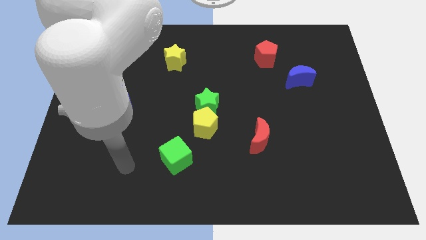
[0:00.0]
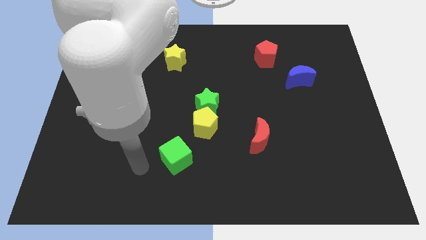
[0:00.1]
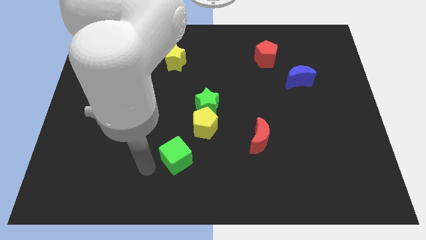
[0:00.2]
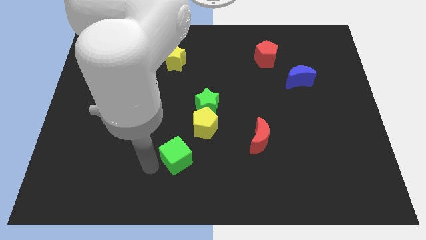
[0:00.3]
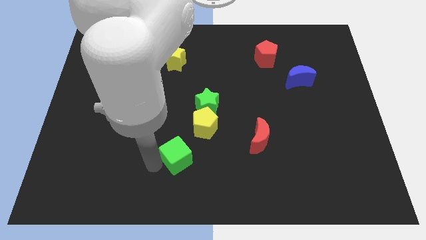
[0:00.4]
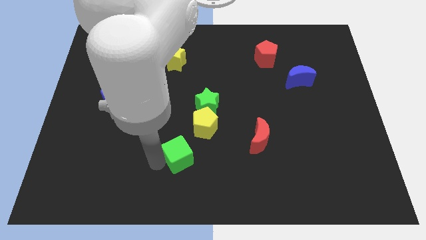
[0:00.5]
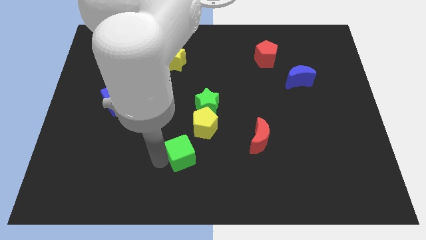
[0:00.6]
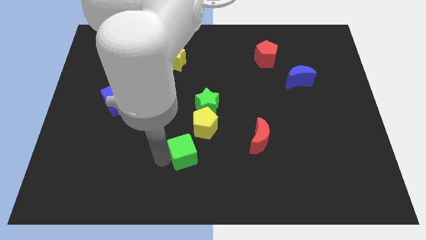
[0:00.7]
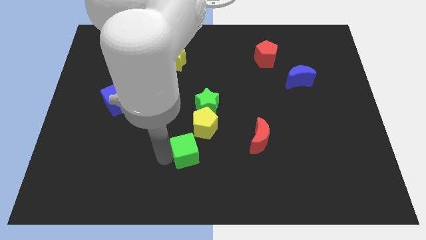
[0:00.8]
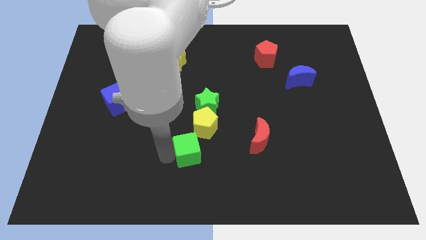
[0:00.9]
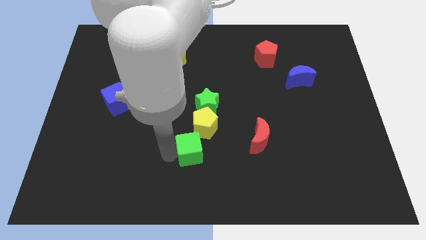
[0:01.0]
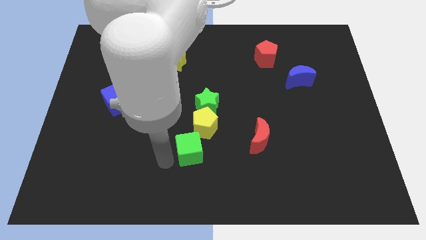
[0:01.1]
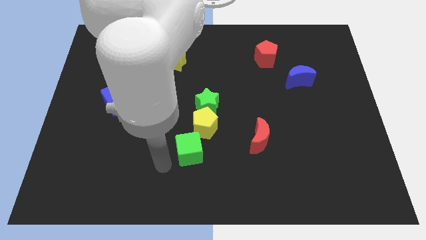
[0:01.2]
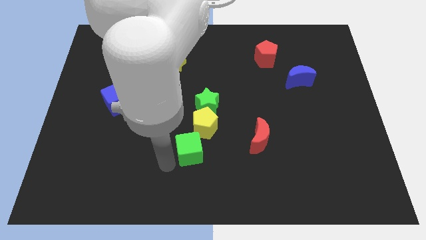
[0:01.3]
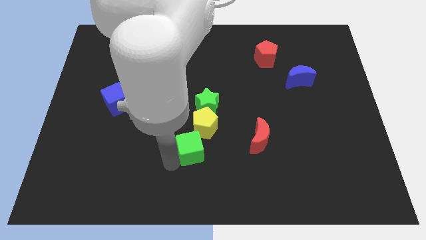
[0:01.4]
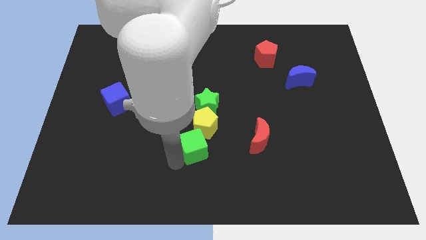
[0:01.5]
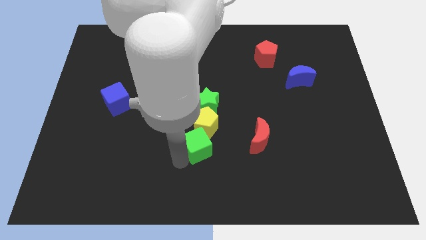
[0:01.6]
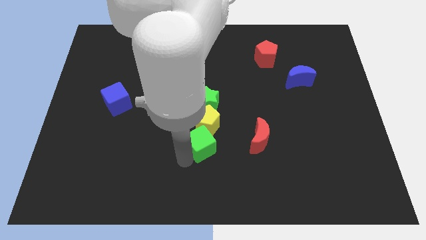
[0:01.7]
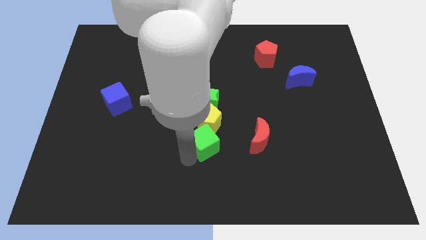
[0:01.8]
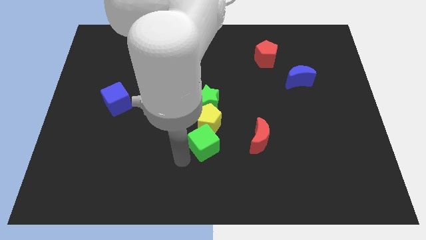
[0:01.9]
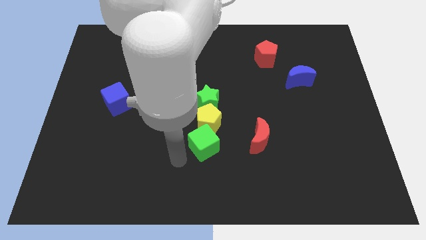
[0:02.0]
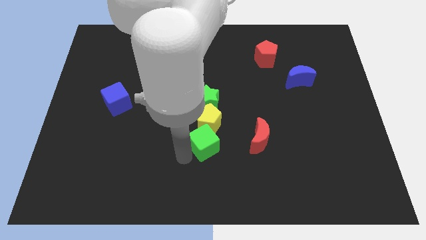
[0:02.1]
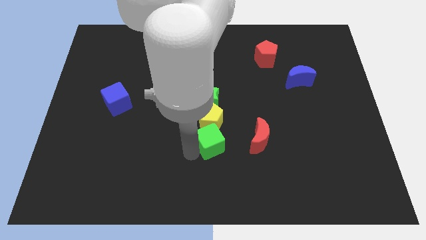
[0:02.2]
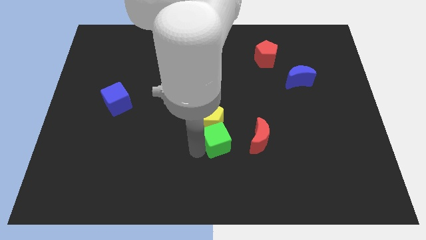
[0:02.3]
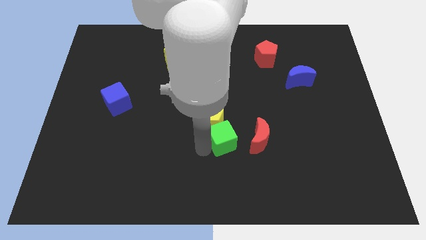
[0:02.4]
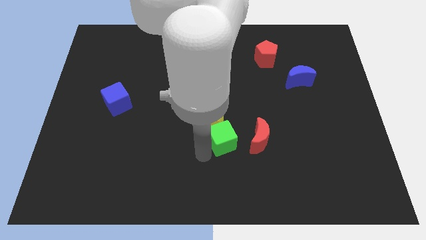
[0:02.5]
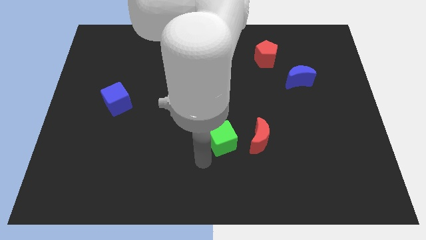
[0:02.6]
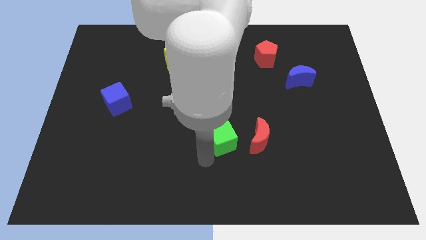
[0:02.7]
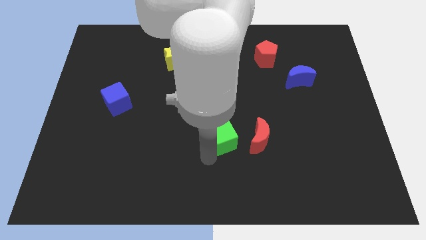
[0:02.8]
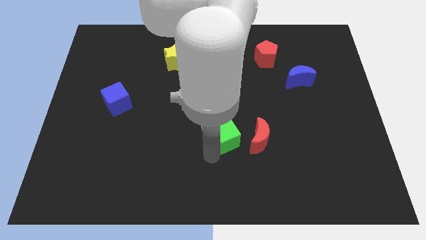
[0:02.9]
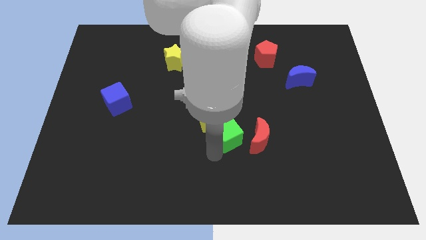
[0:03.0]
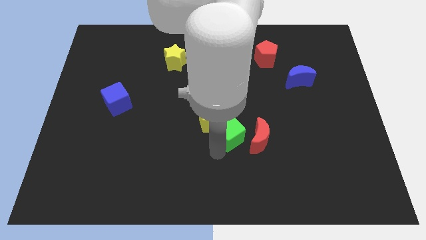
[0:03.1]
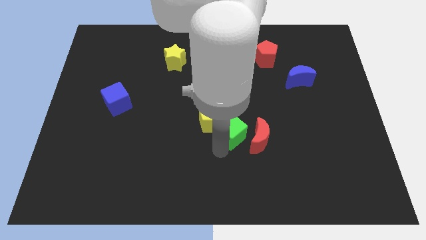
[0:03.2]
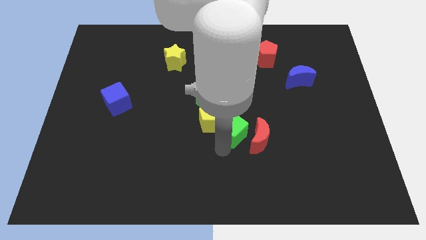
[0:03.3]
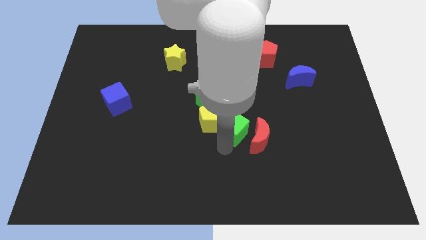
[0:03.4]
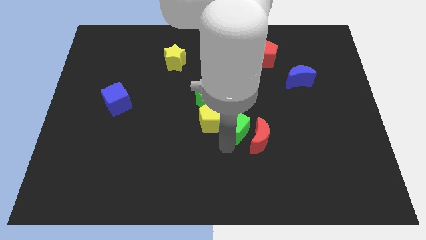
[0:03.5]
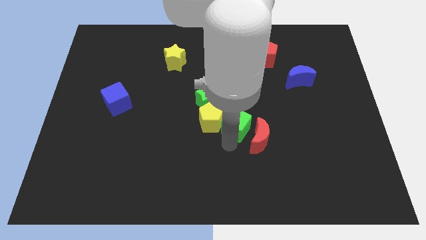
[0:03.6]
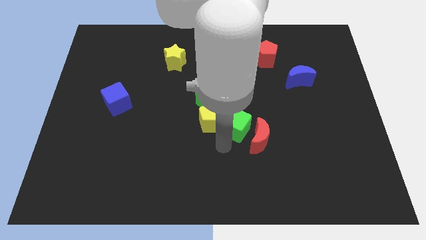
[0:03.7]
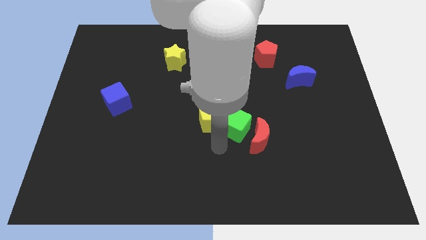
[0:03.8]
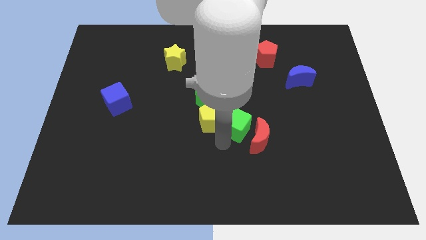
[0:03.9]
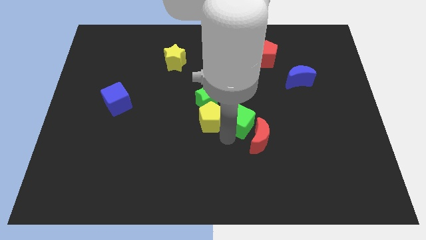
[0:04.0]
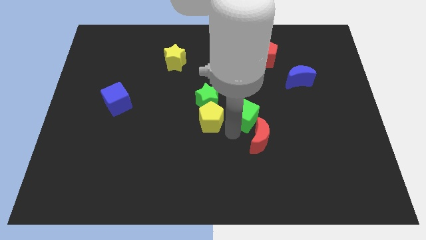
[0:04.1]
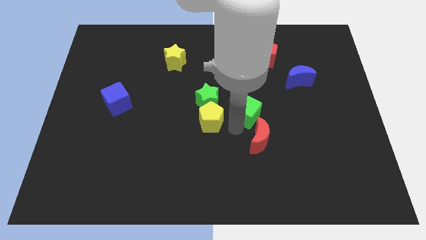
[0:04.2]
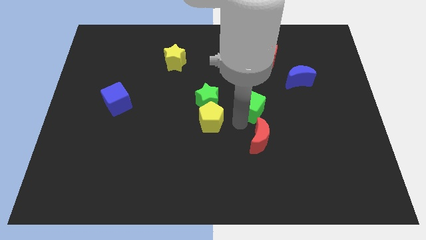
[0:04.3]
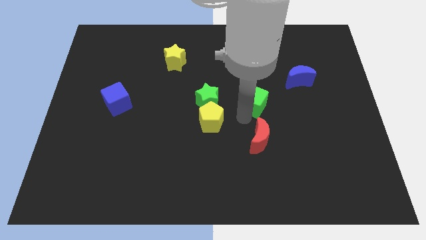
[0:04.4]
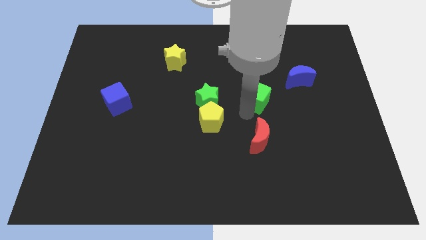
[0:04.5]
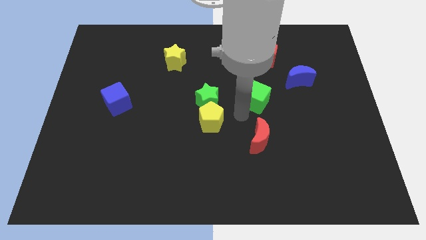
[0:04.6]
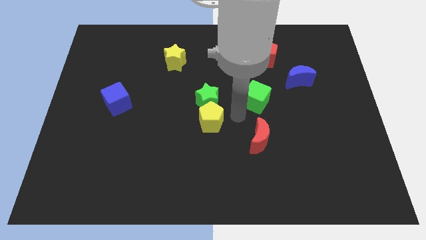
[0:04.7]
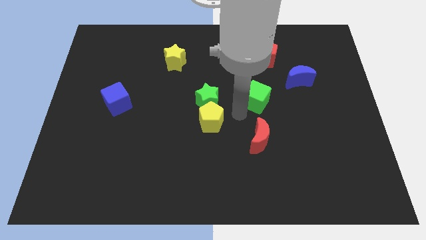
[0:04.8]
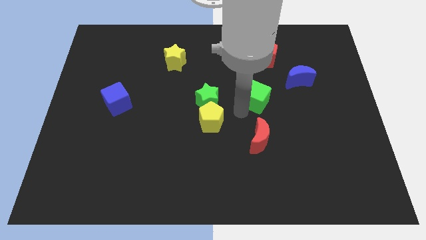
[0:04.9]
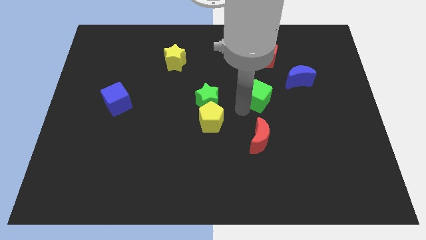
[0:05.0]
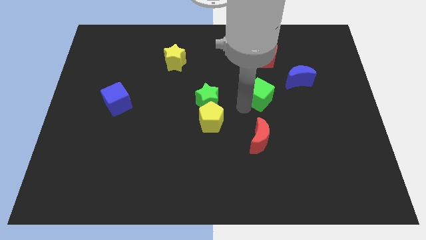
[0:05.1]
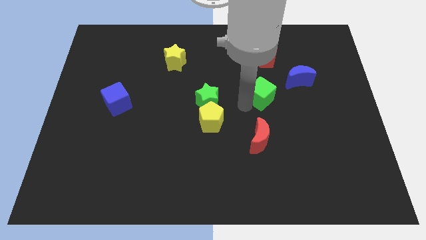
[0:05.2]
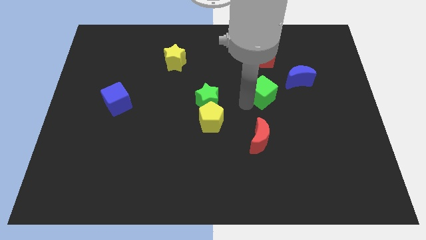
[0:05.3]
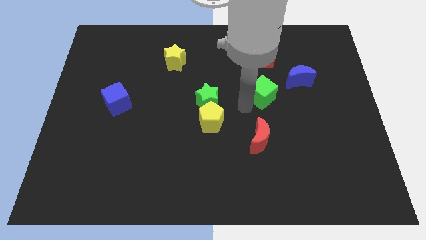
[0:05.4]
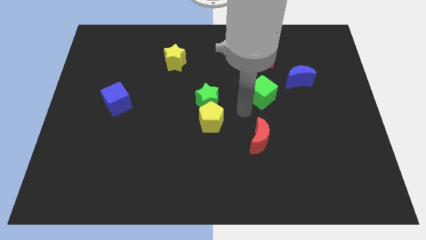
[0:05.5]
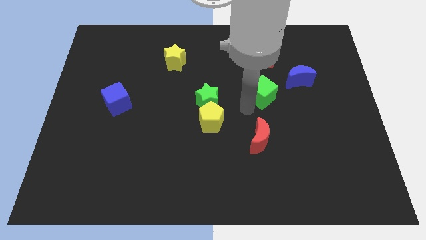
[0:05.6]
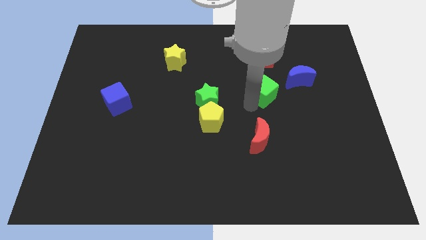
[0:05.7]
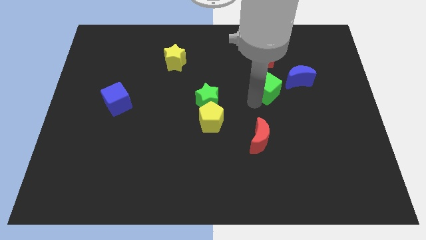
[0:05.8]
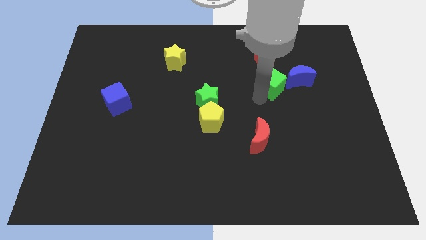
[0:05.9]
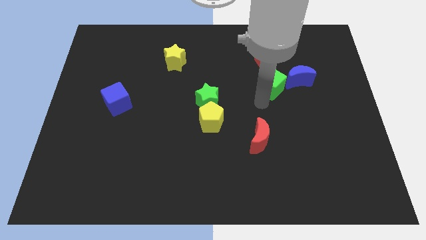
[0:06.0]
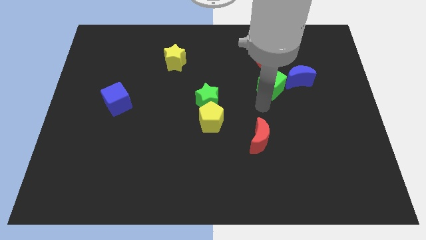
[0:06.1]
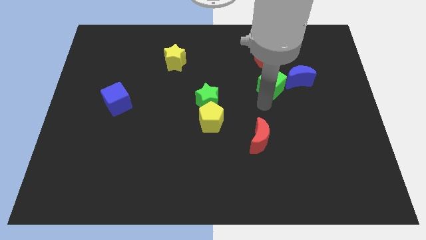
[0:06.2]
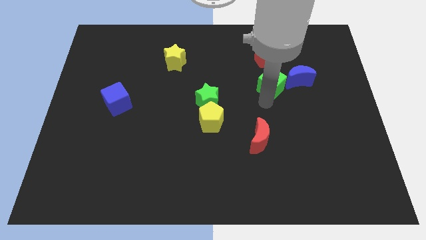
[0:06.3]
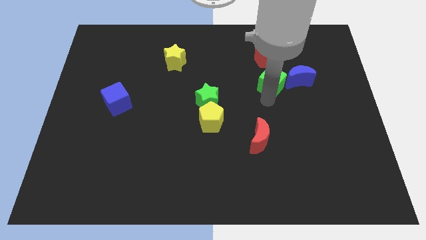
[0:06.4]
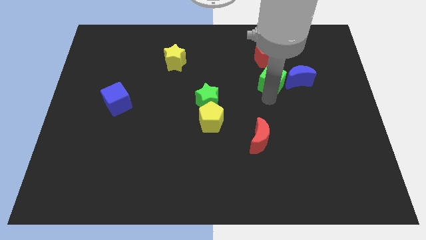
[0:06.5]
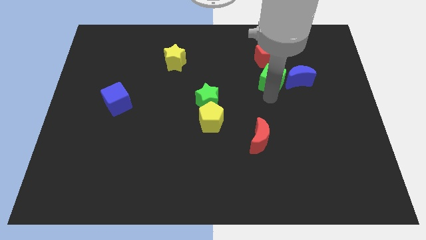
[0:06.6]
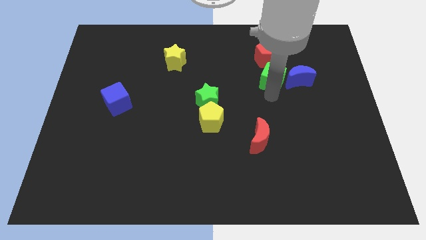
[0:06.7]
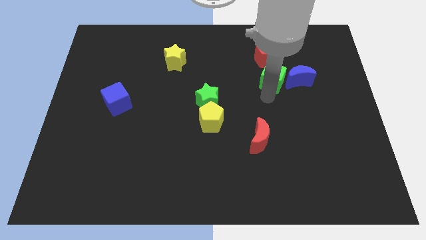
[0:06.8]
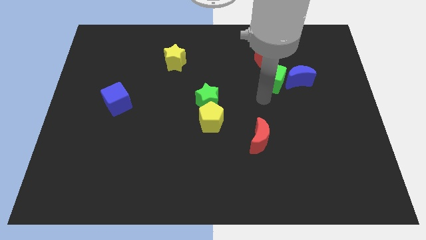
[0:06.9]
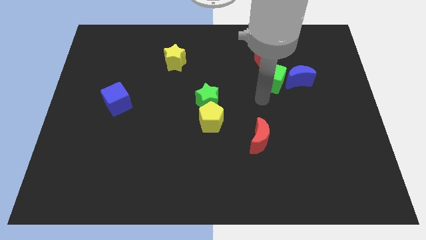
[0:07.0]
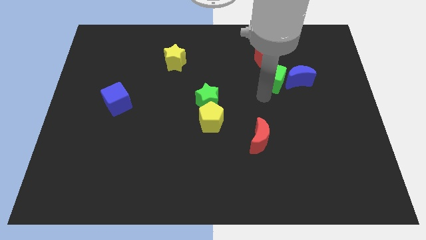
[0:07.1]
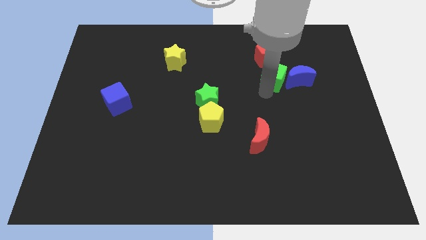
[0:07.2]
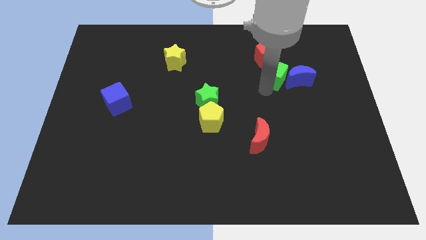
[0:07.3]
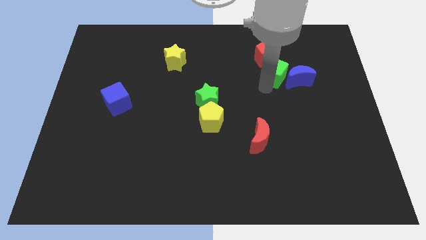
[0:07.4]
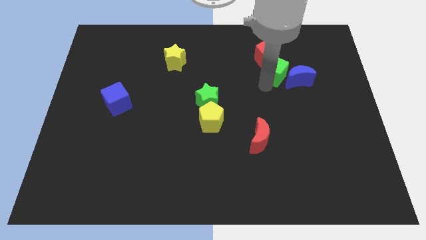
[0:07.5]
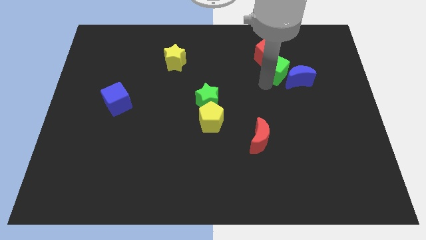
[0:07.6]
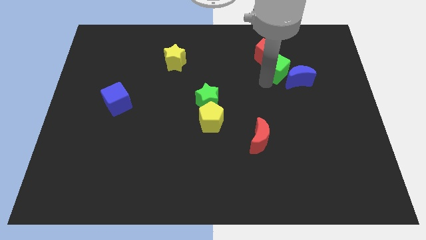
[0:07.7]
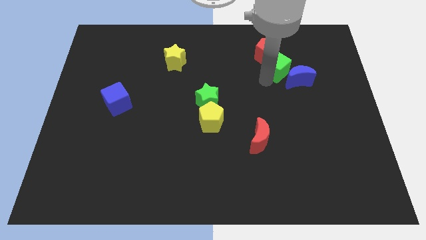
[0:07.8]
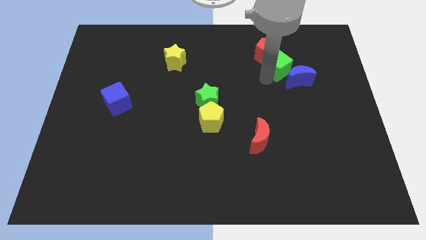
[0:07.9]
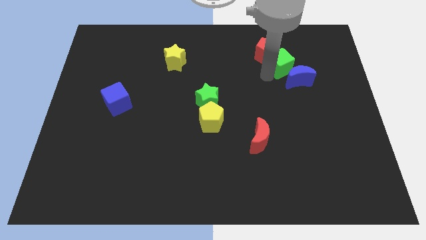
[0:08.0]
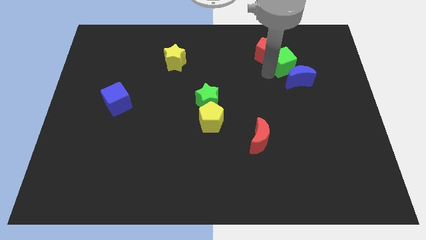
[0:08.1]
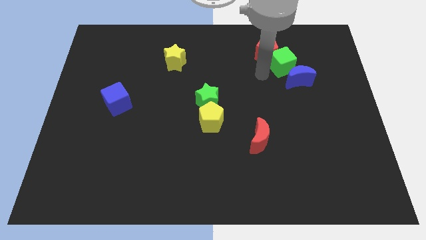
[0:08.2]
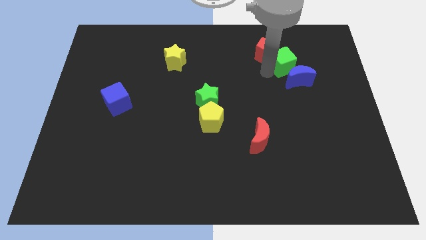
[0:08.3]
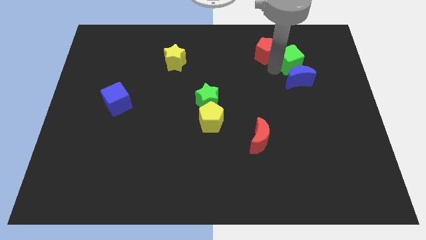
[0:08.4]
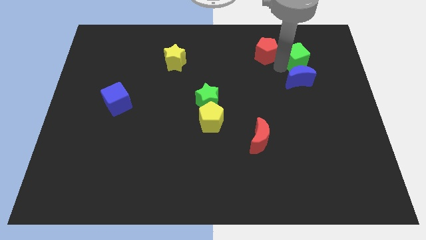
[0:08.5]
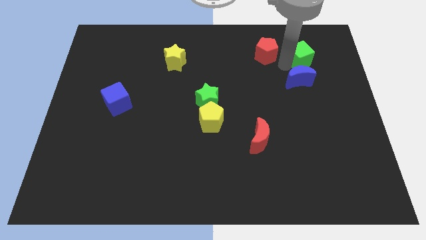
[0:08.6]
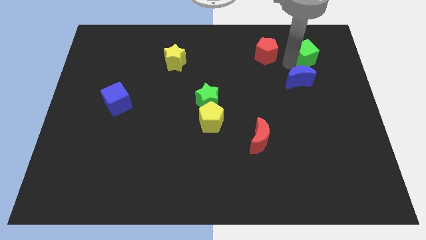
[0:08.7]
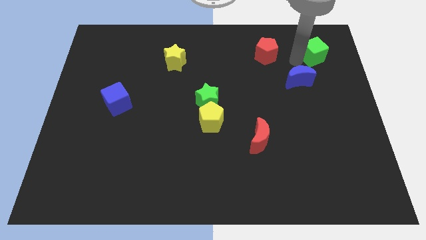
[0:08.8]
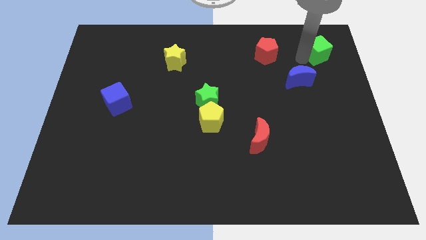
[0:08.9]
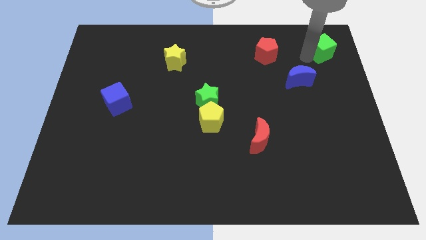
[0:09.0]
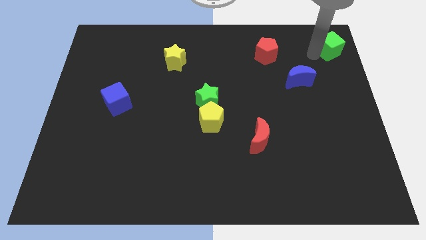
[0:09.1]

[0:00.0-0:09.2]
slide the green cube to the top right
